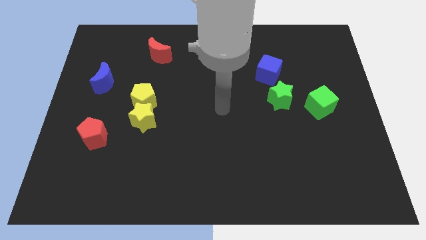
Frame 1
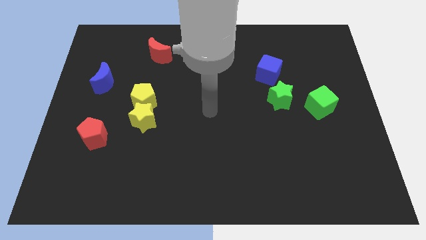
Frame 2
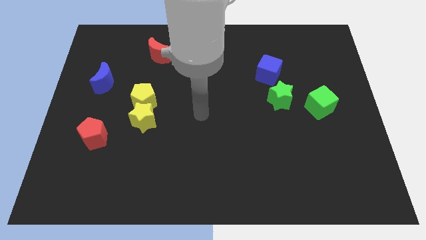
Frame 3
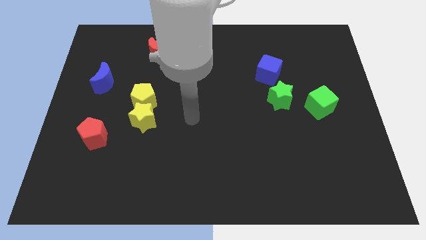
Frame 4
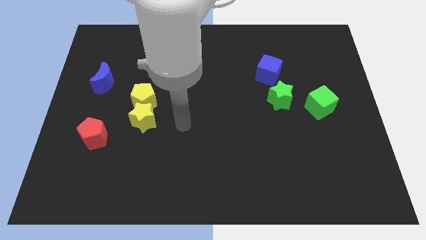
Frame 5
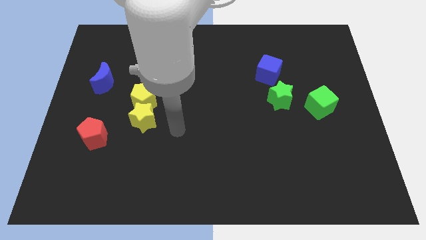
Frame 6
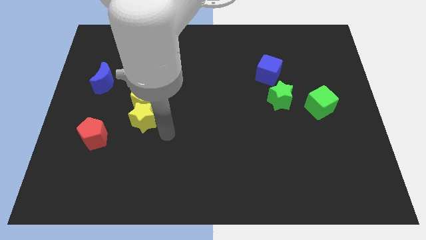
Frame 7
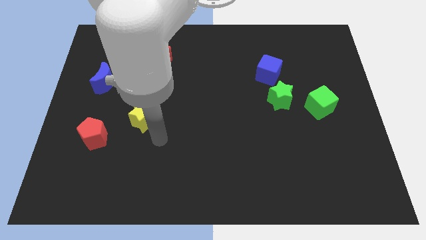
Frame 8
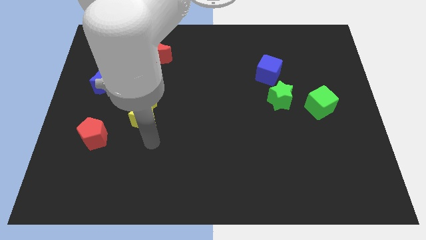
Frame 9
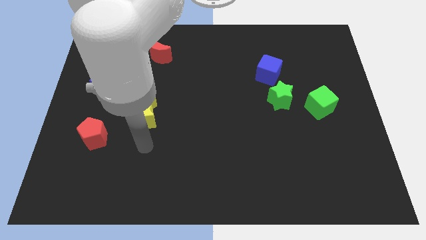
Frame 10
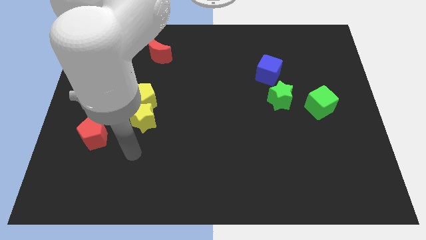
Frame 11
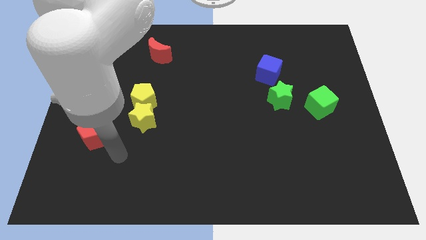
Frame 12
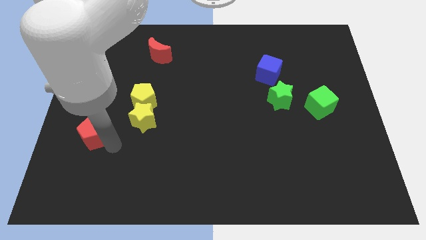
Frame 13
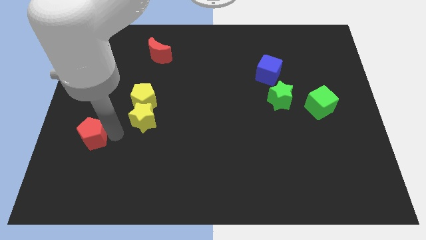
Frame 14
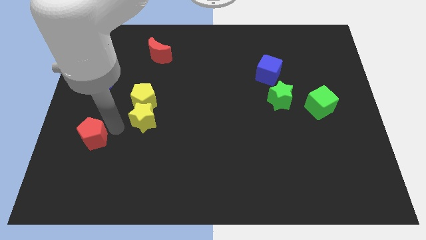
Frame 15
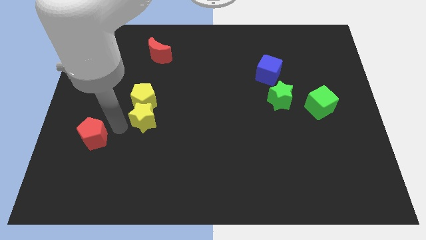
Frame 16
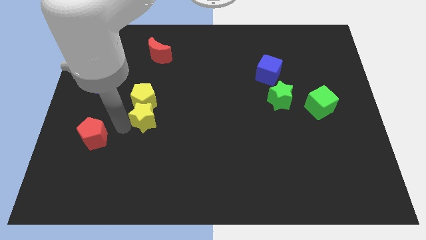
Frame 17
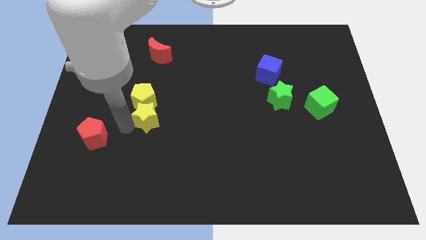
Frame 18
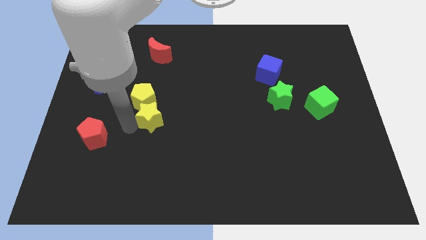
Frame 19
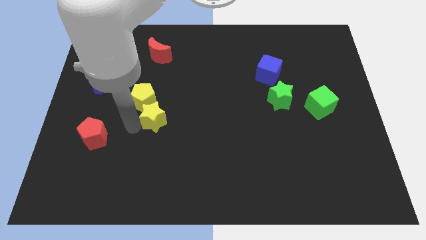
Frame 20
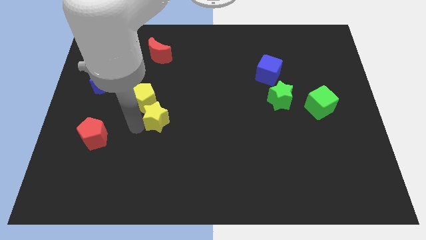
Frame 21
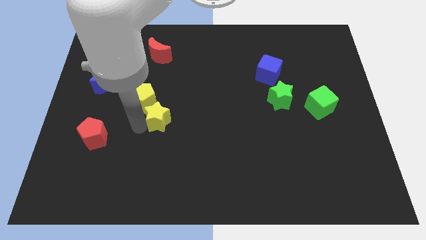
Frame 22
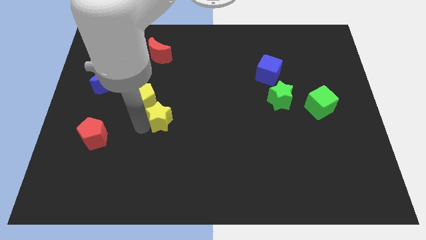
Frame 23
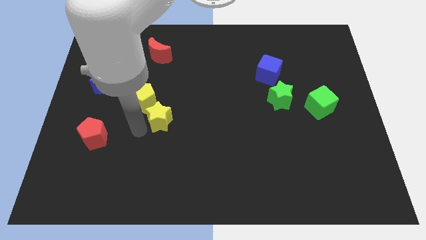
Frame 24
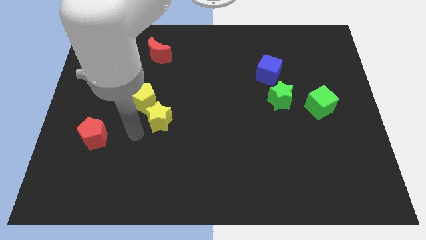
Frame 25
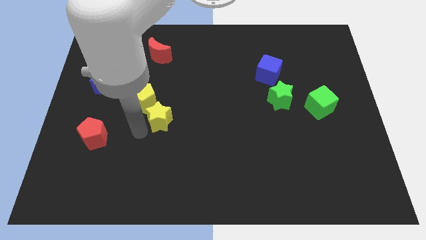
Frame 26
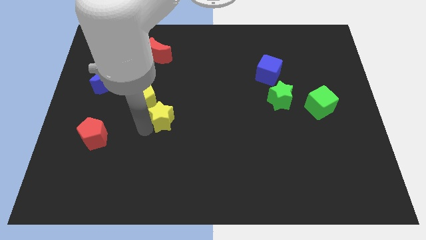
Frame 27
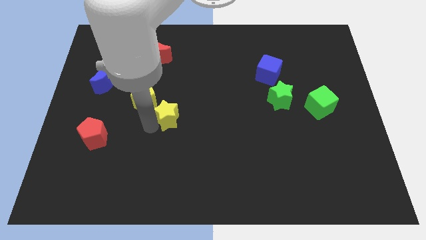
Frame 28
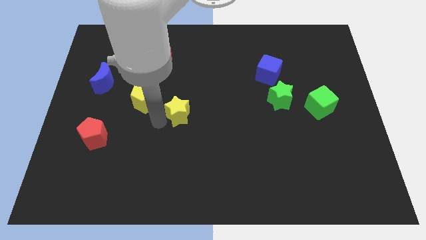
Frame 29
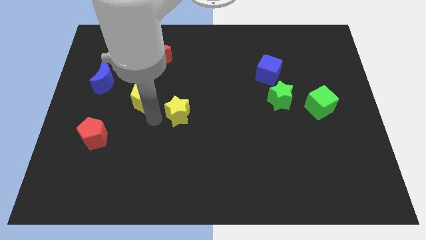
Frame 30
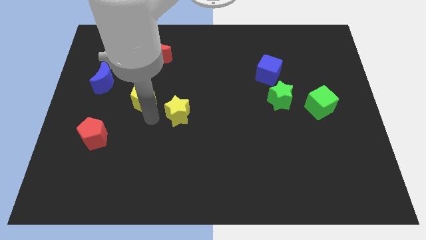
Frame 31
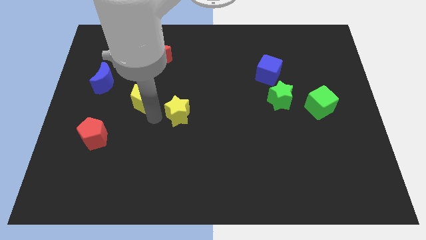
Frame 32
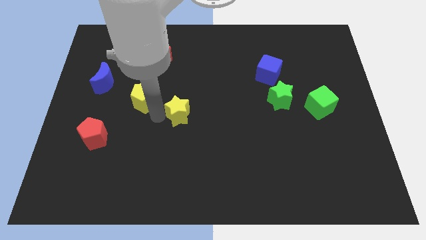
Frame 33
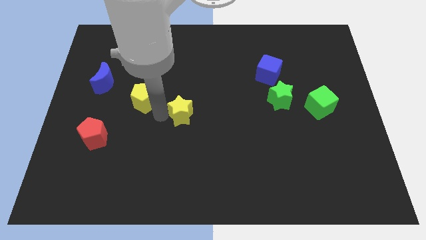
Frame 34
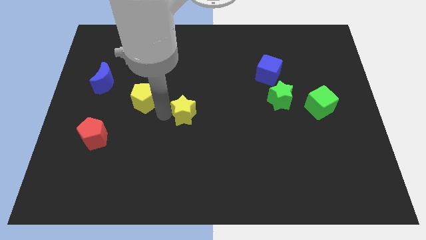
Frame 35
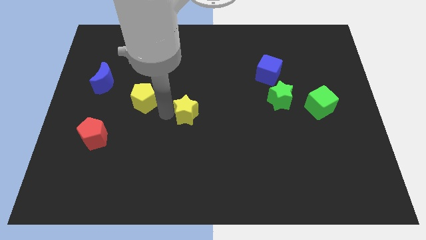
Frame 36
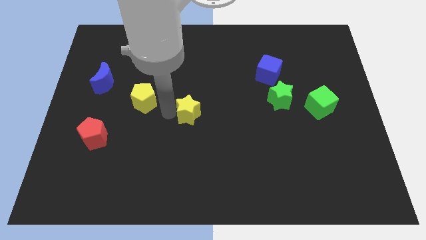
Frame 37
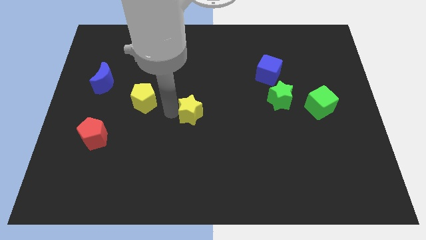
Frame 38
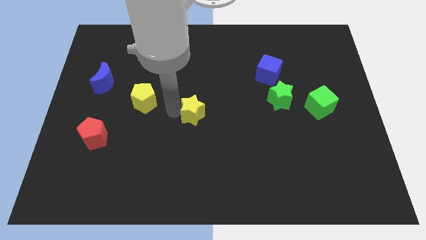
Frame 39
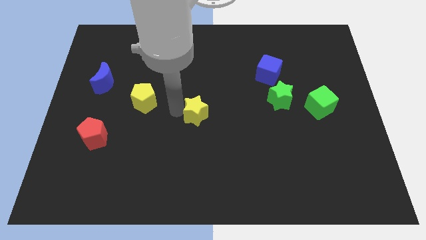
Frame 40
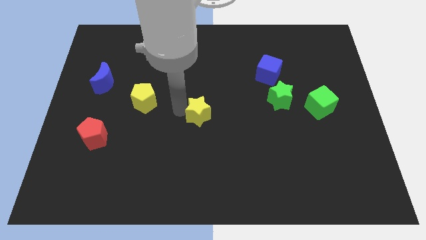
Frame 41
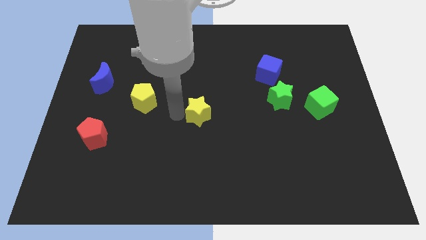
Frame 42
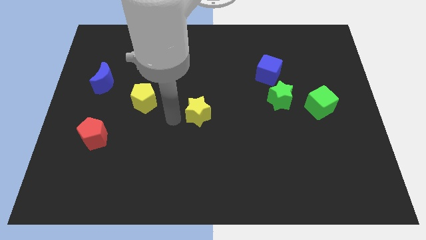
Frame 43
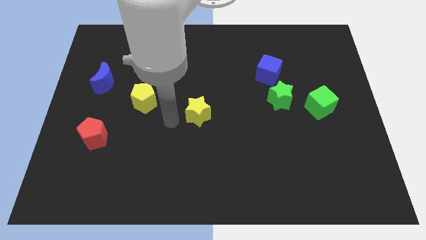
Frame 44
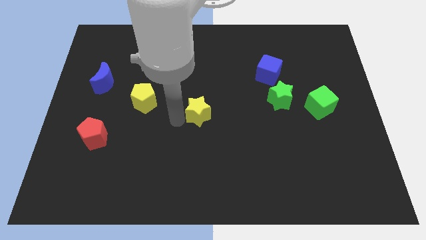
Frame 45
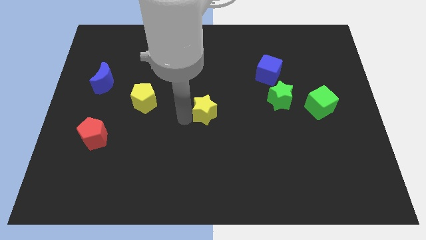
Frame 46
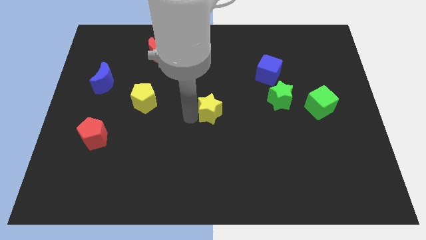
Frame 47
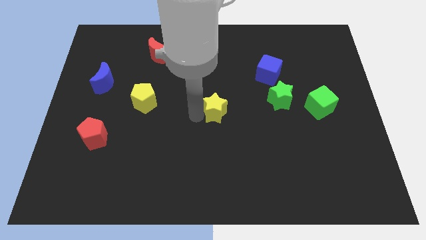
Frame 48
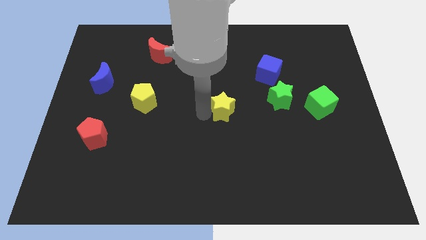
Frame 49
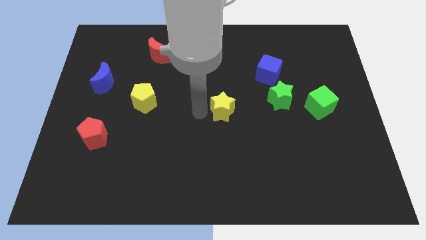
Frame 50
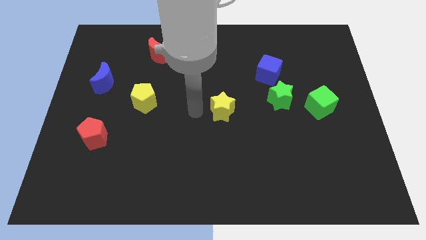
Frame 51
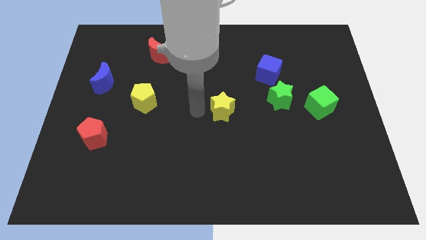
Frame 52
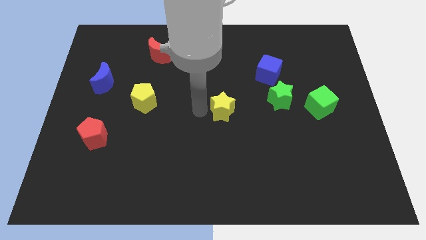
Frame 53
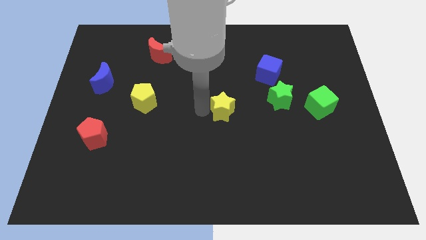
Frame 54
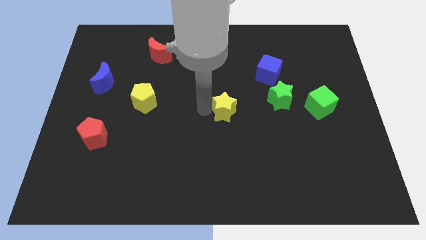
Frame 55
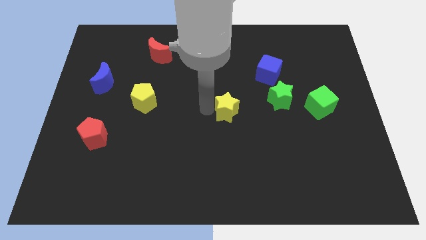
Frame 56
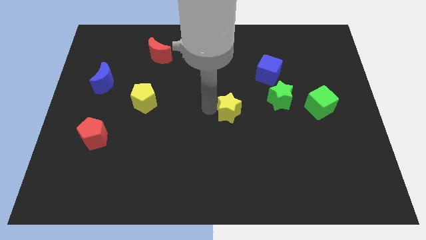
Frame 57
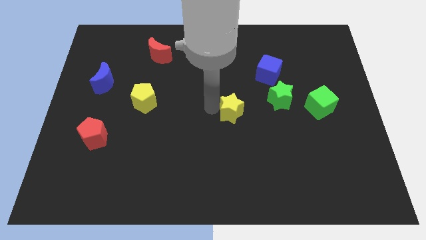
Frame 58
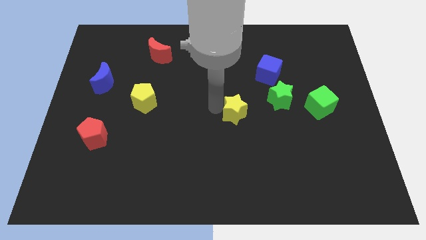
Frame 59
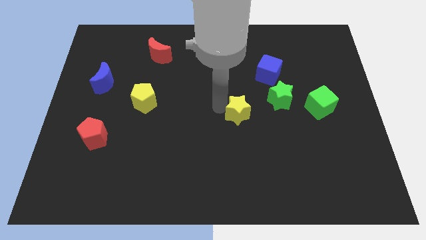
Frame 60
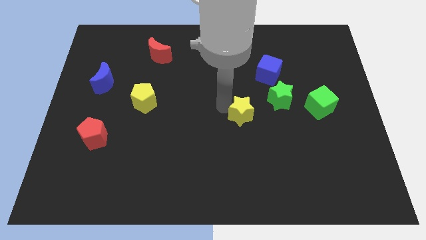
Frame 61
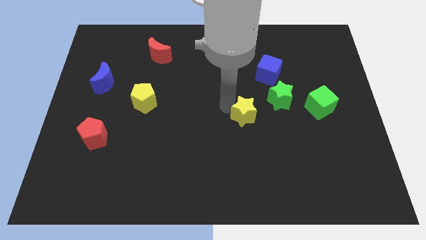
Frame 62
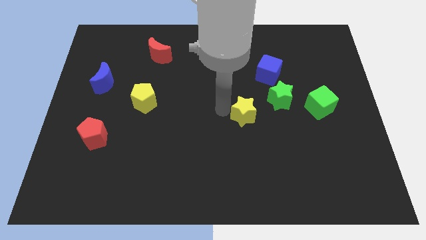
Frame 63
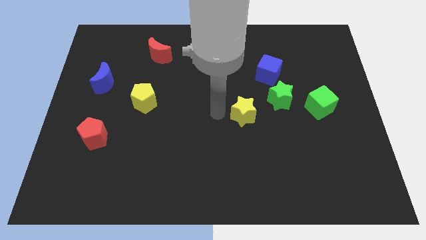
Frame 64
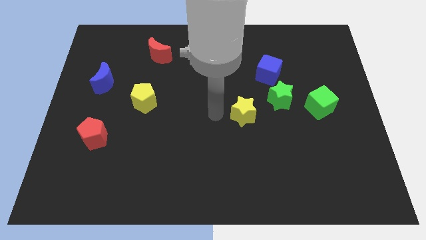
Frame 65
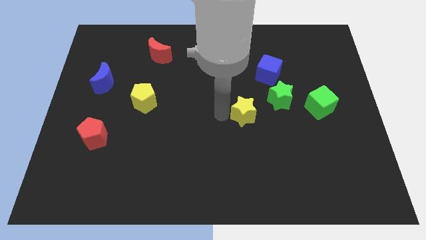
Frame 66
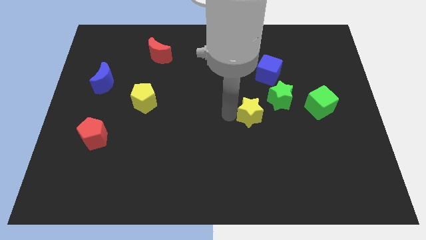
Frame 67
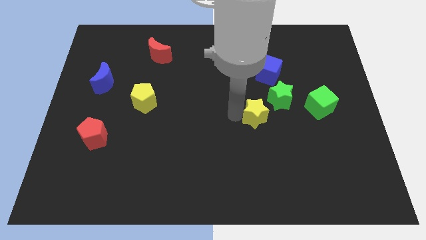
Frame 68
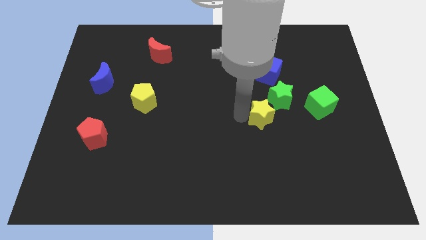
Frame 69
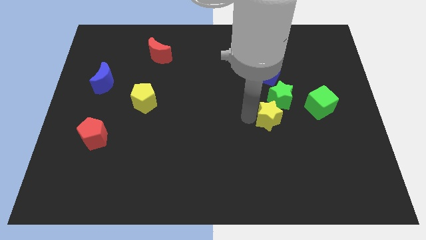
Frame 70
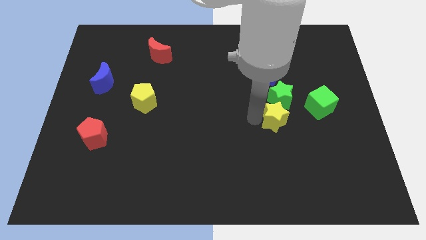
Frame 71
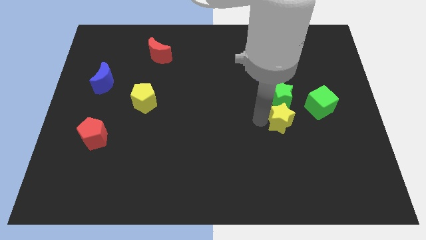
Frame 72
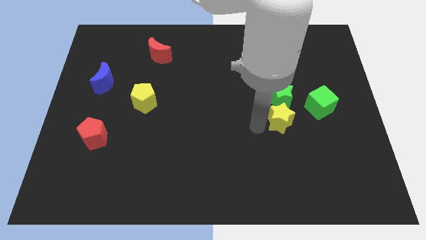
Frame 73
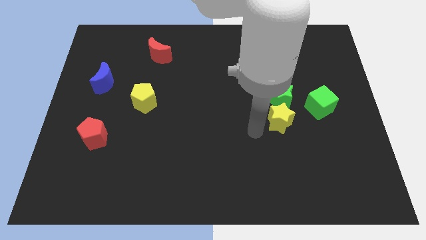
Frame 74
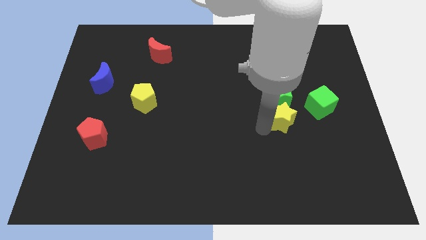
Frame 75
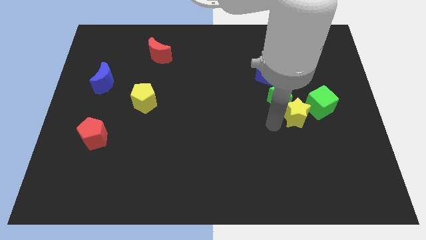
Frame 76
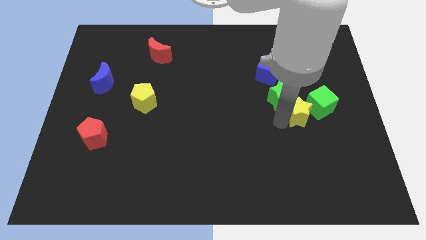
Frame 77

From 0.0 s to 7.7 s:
slide the yellow star next to the green cube
